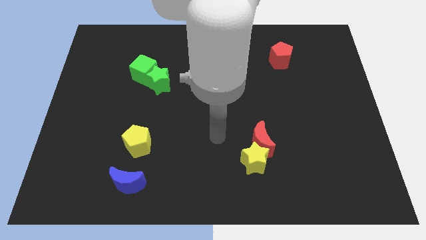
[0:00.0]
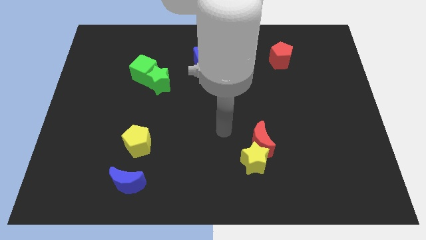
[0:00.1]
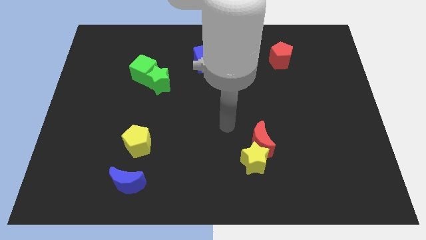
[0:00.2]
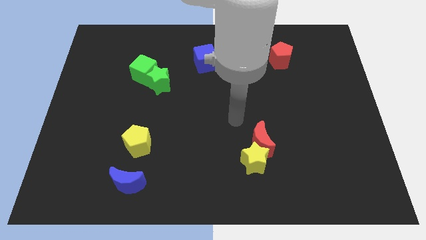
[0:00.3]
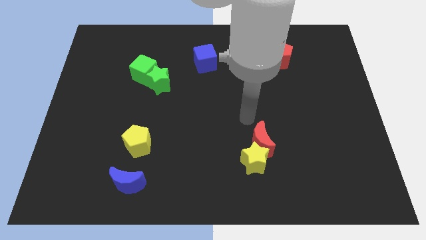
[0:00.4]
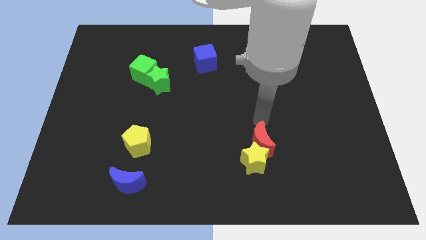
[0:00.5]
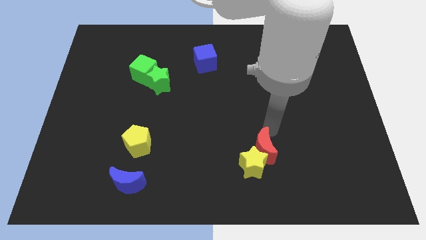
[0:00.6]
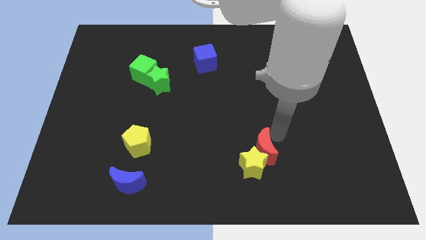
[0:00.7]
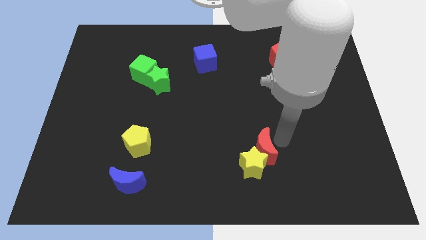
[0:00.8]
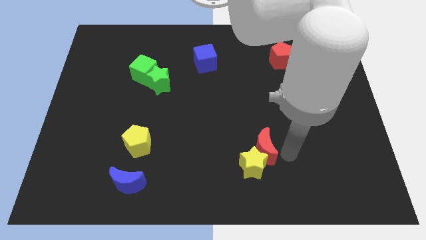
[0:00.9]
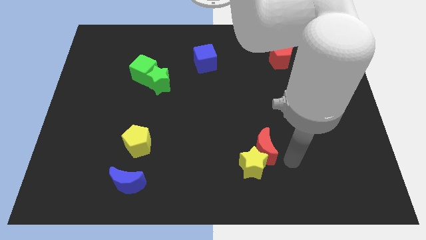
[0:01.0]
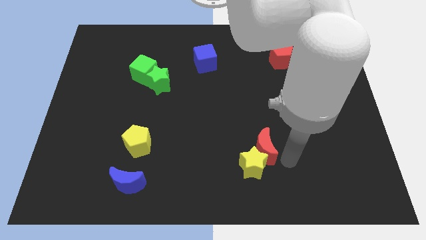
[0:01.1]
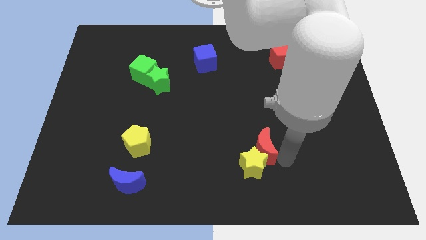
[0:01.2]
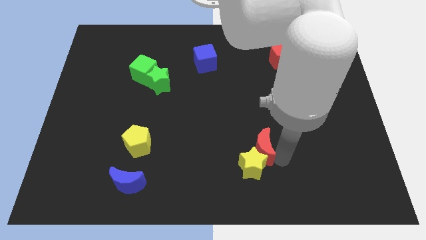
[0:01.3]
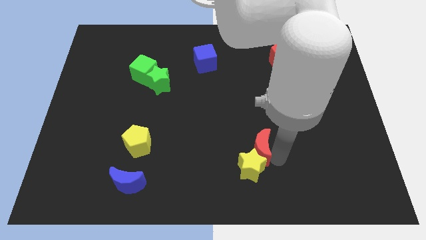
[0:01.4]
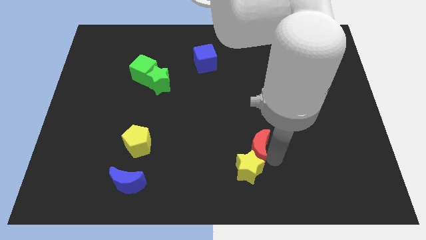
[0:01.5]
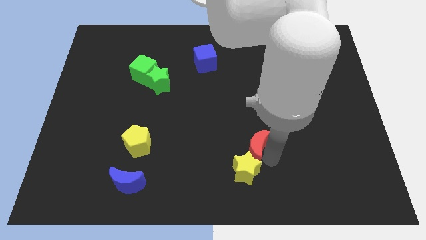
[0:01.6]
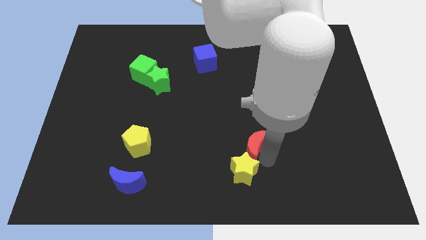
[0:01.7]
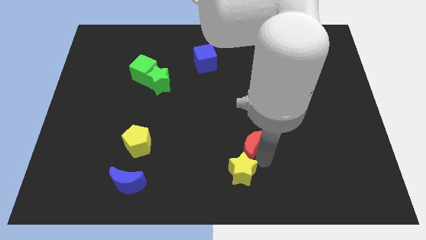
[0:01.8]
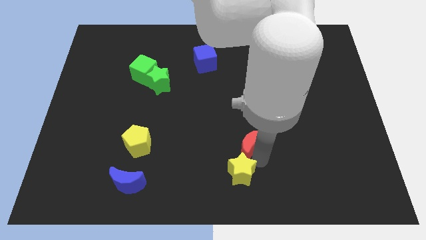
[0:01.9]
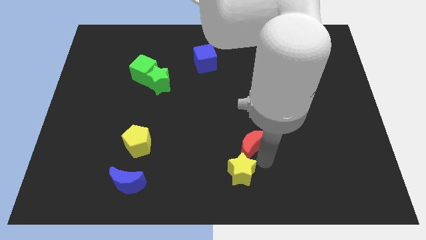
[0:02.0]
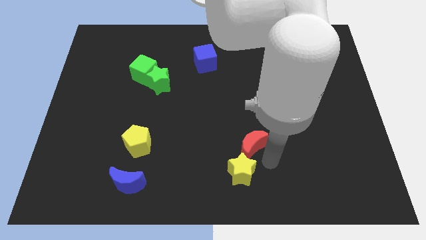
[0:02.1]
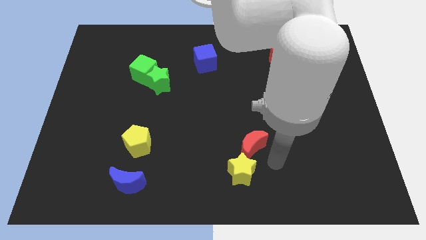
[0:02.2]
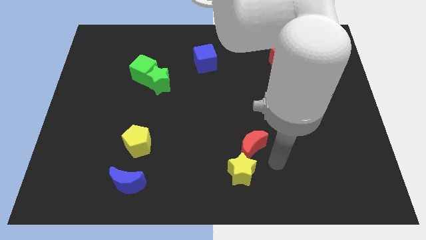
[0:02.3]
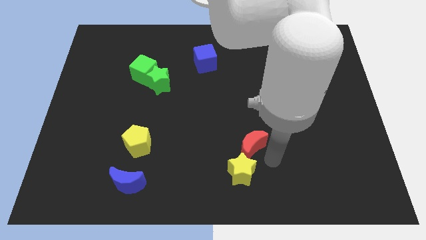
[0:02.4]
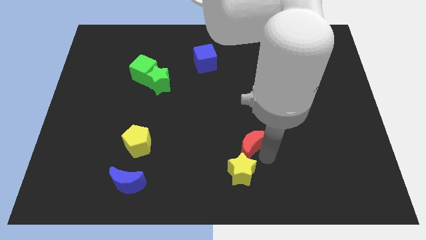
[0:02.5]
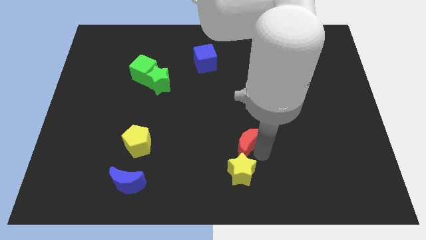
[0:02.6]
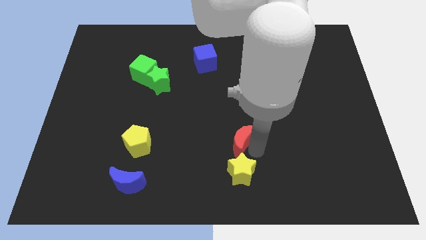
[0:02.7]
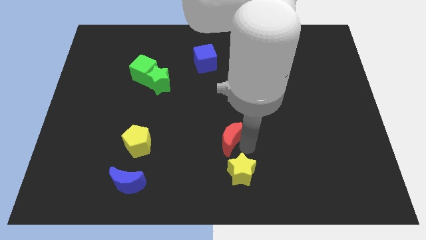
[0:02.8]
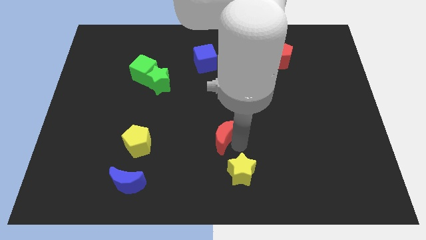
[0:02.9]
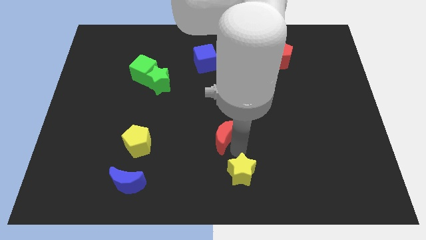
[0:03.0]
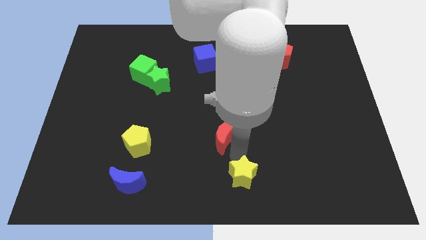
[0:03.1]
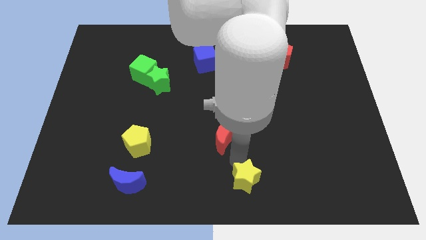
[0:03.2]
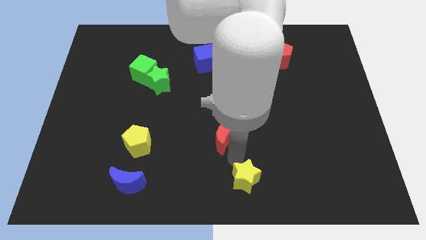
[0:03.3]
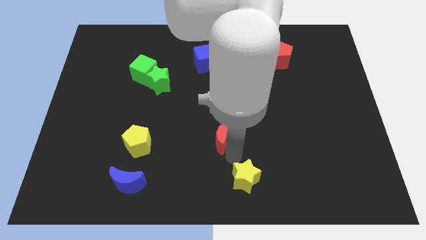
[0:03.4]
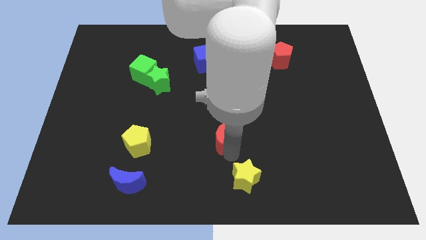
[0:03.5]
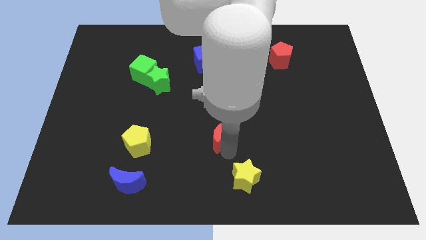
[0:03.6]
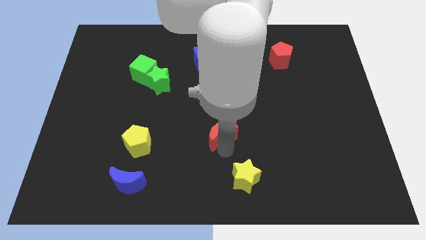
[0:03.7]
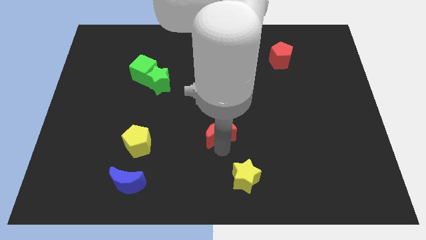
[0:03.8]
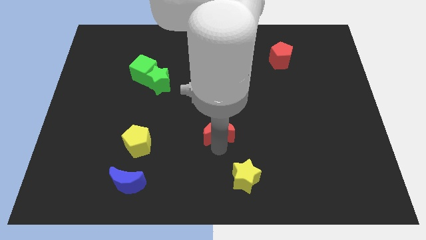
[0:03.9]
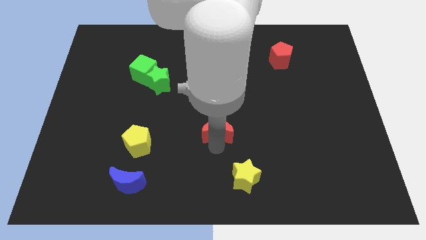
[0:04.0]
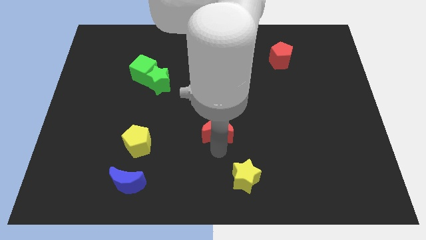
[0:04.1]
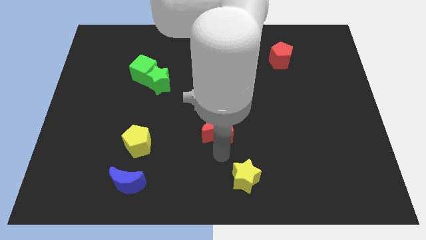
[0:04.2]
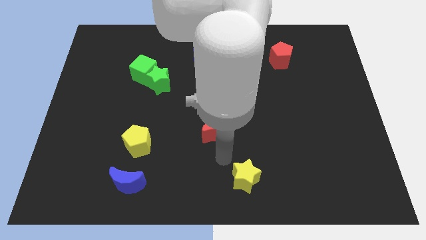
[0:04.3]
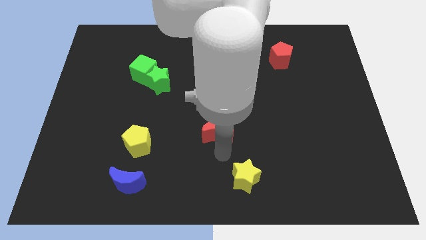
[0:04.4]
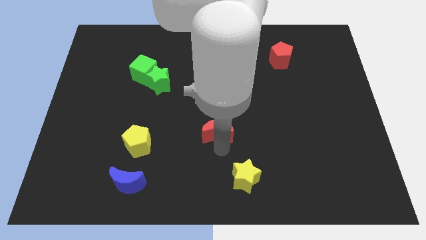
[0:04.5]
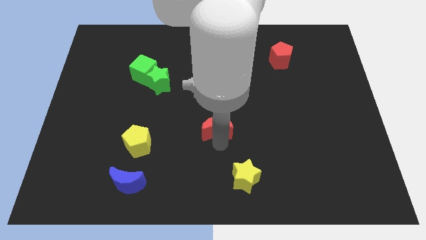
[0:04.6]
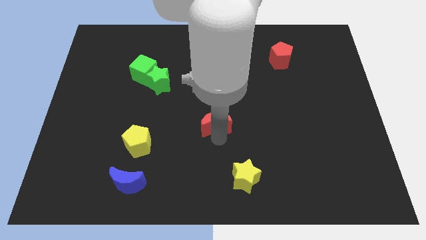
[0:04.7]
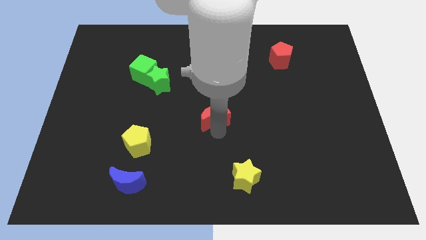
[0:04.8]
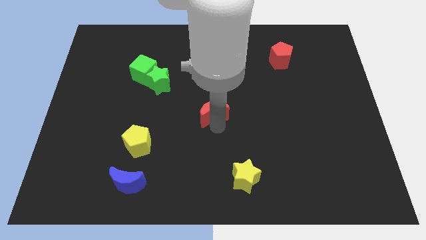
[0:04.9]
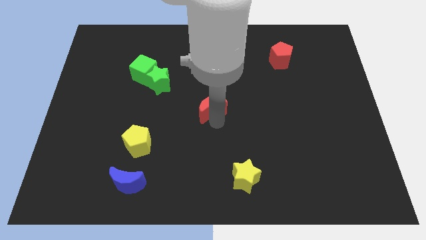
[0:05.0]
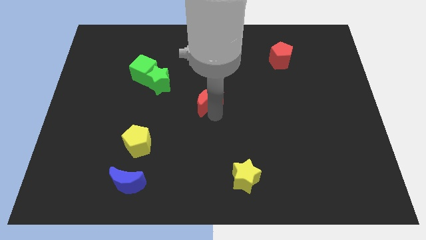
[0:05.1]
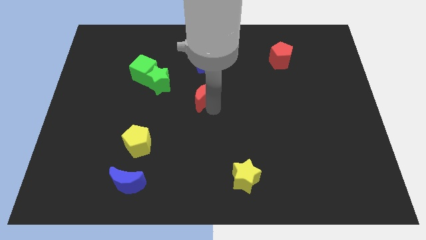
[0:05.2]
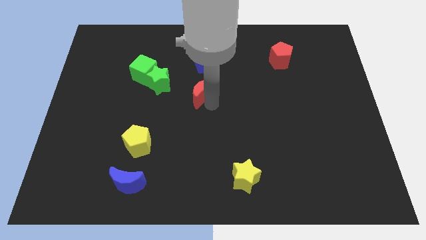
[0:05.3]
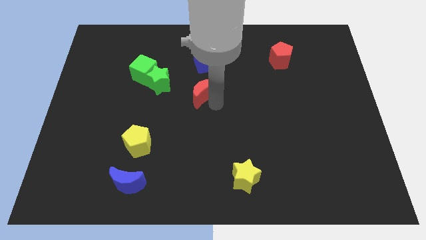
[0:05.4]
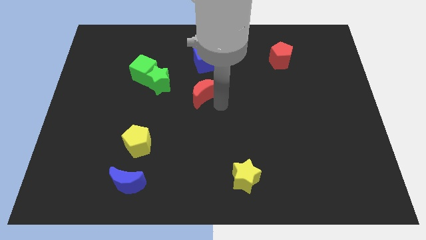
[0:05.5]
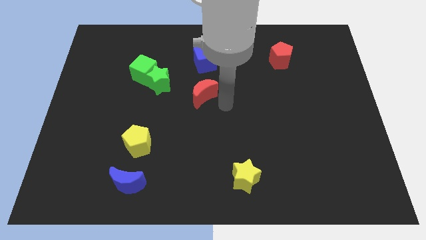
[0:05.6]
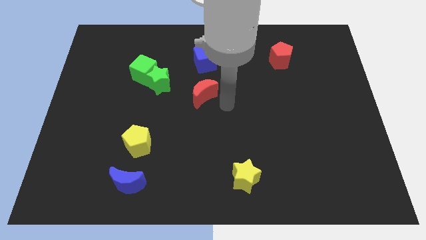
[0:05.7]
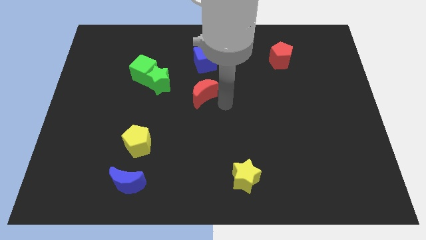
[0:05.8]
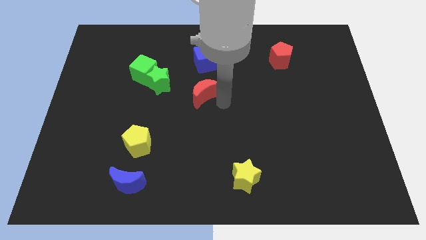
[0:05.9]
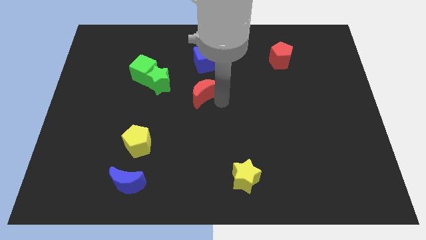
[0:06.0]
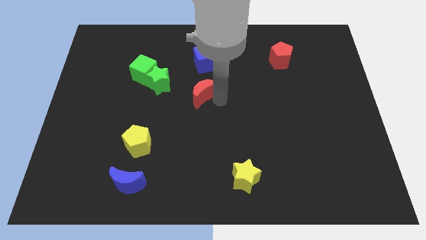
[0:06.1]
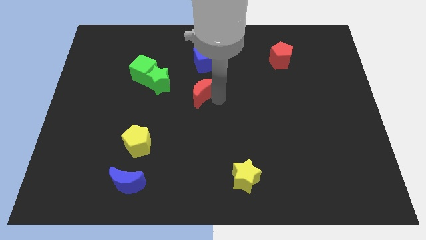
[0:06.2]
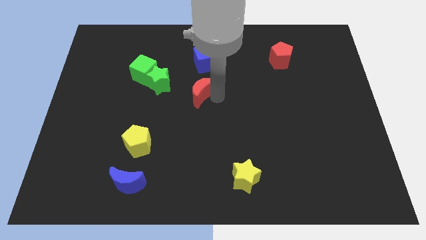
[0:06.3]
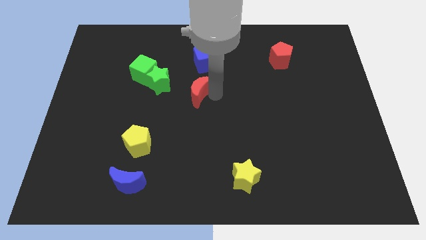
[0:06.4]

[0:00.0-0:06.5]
move the red moon up and to the left diagonally

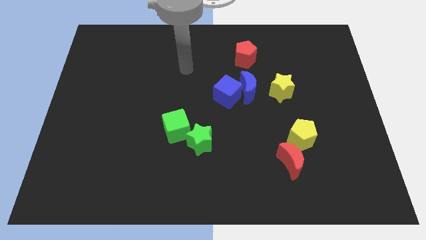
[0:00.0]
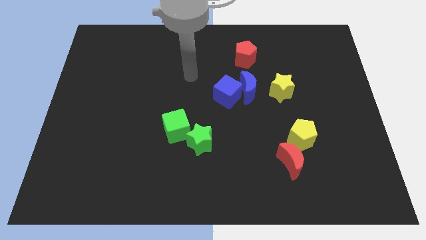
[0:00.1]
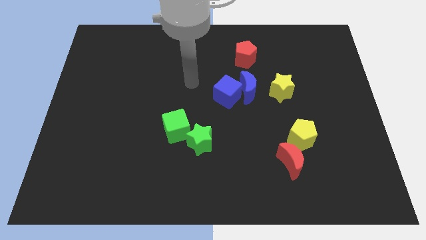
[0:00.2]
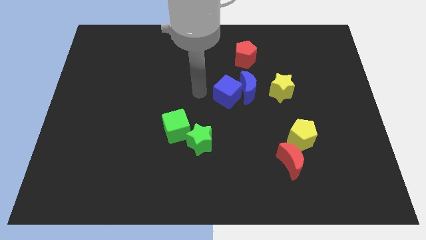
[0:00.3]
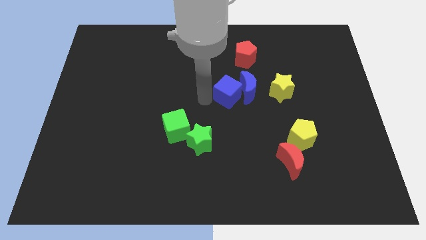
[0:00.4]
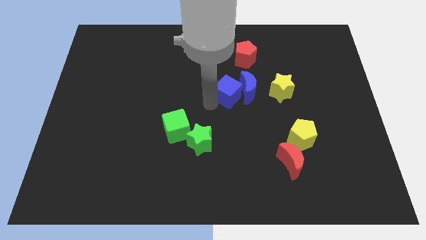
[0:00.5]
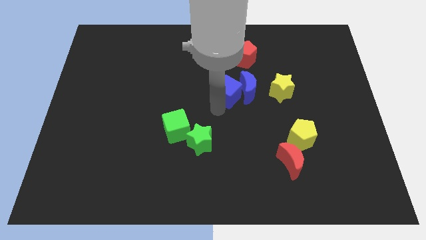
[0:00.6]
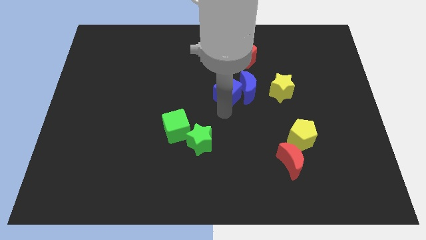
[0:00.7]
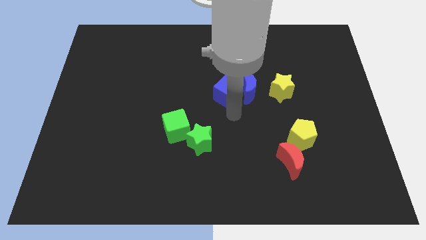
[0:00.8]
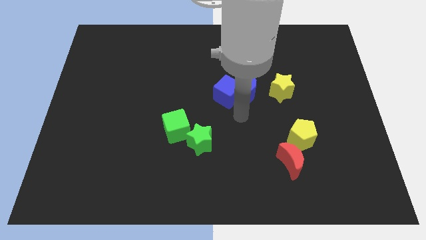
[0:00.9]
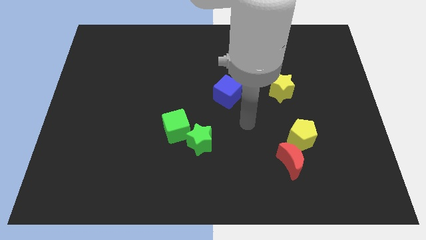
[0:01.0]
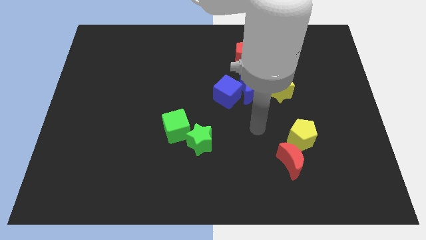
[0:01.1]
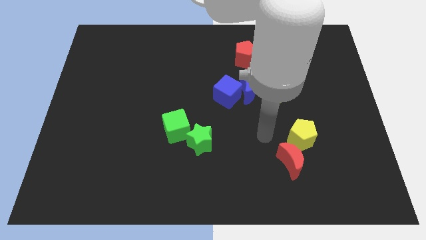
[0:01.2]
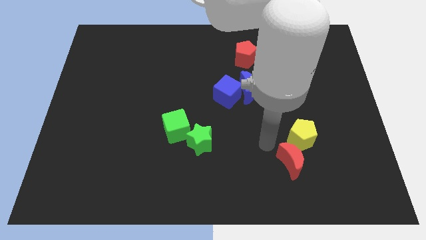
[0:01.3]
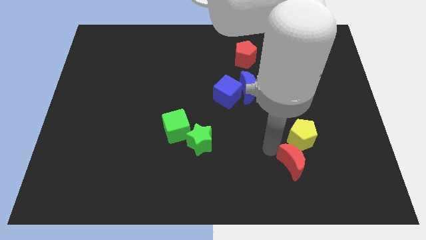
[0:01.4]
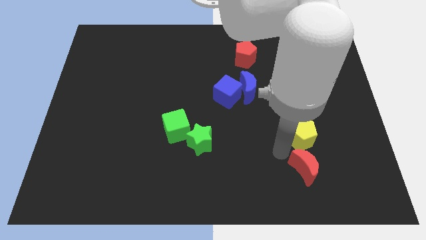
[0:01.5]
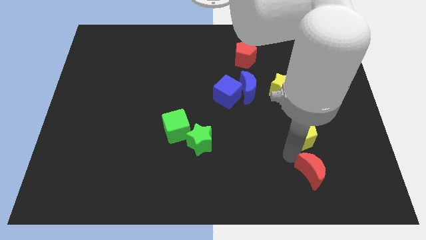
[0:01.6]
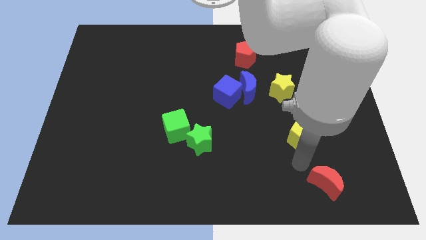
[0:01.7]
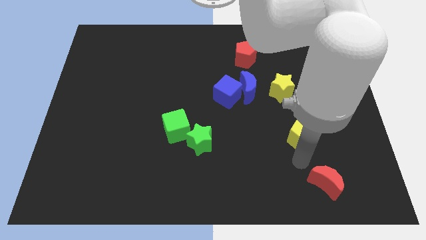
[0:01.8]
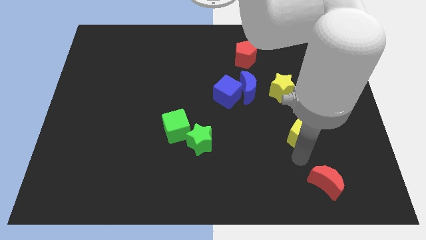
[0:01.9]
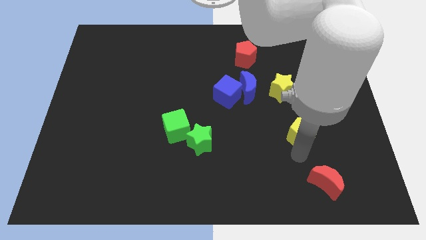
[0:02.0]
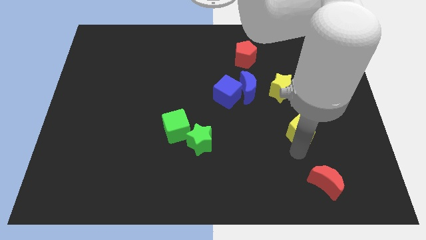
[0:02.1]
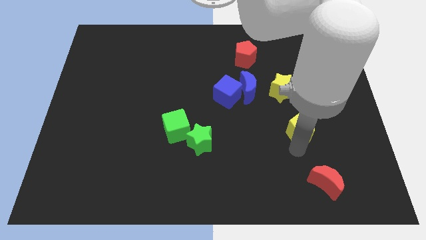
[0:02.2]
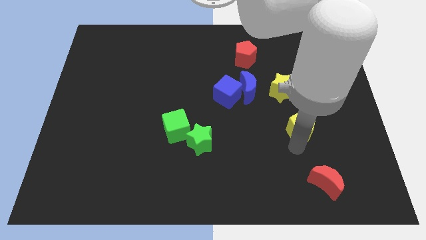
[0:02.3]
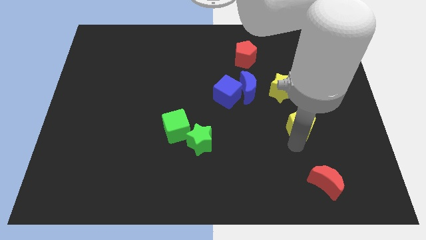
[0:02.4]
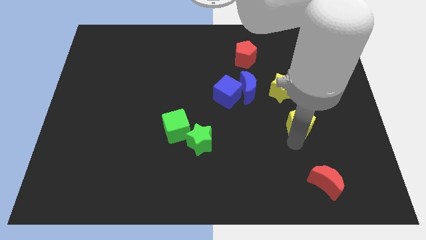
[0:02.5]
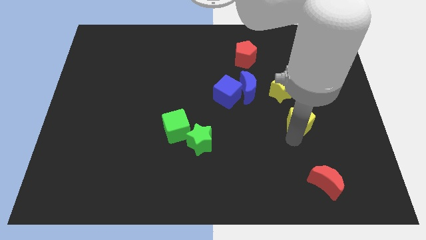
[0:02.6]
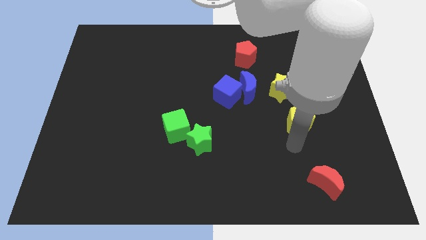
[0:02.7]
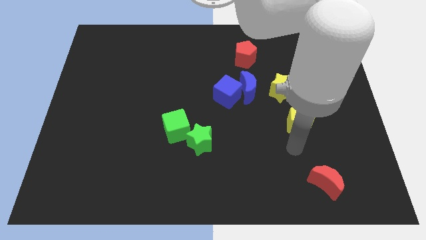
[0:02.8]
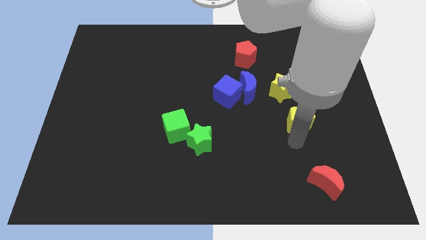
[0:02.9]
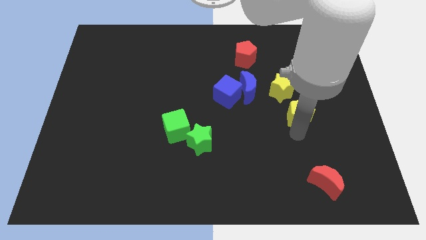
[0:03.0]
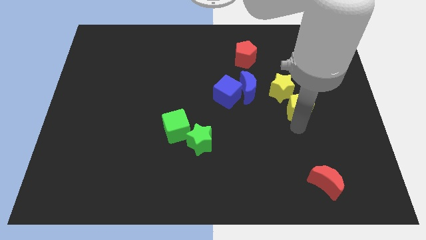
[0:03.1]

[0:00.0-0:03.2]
push the yellow pentagon slightly up
